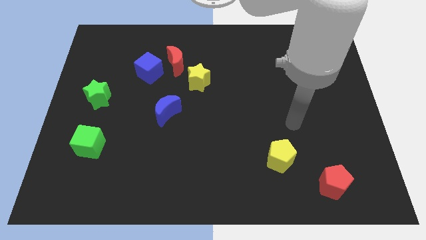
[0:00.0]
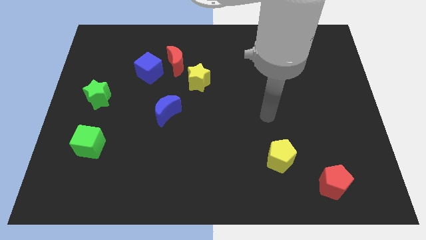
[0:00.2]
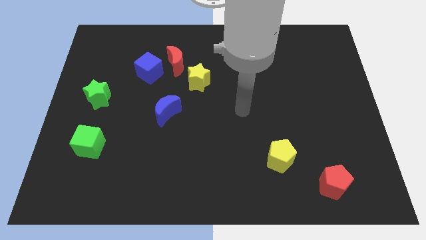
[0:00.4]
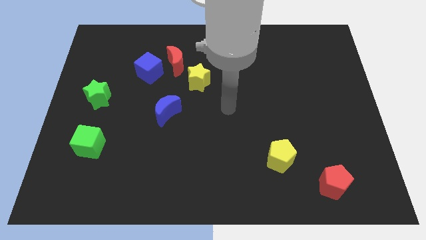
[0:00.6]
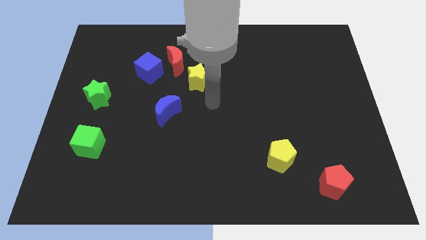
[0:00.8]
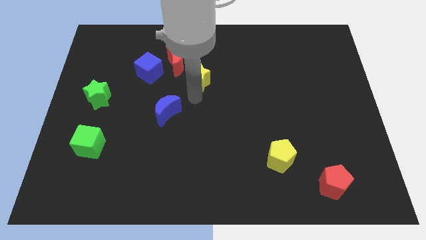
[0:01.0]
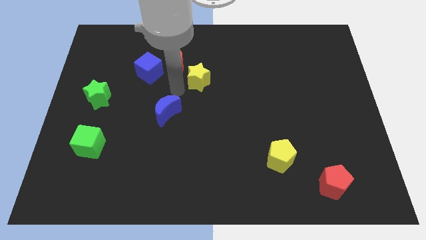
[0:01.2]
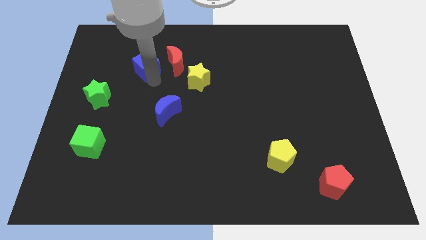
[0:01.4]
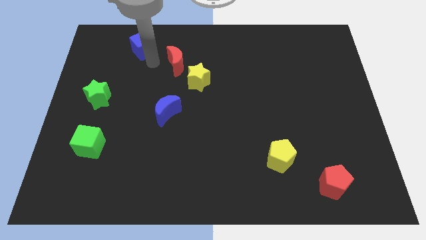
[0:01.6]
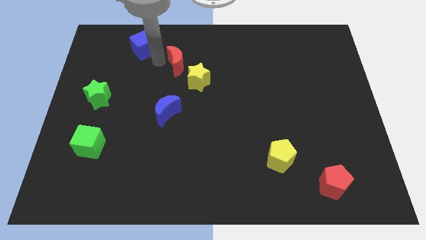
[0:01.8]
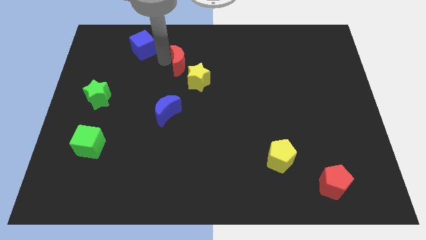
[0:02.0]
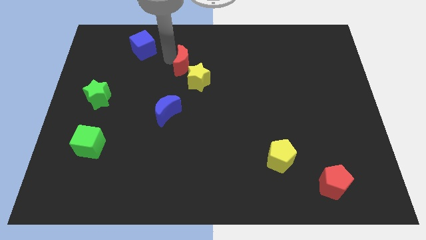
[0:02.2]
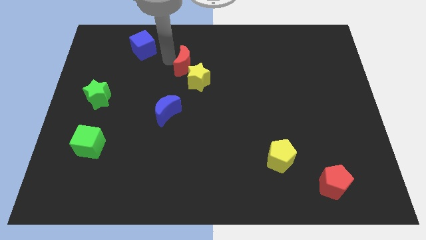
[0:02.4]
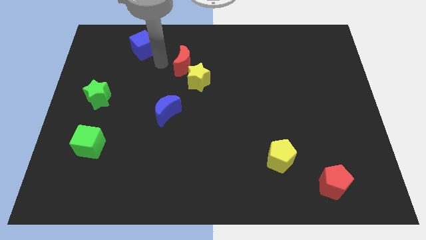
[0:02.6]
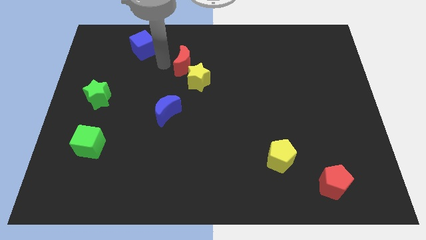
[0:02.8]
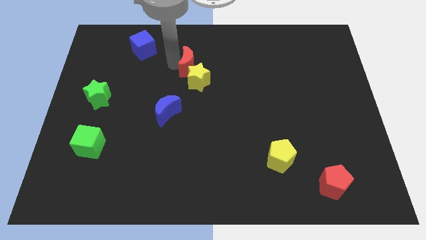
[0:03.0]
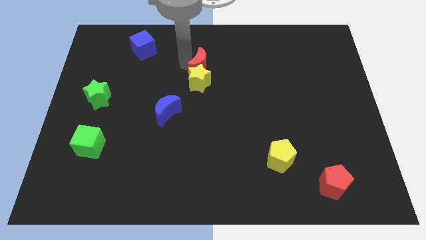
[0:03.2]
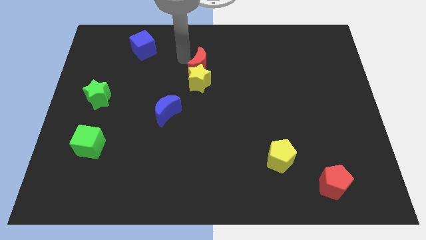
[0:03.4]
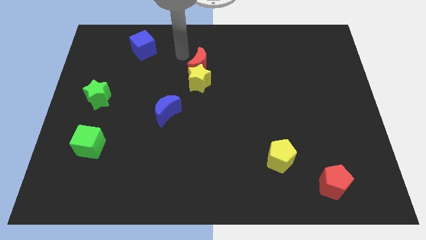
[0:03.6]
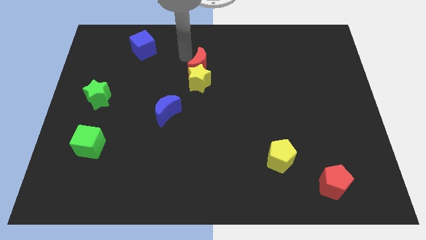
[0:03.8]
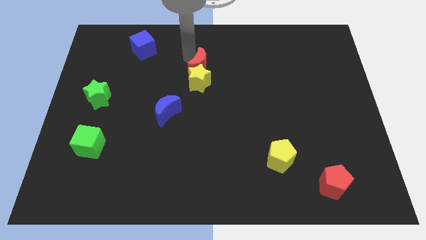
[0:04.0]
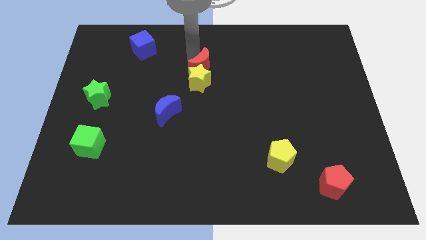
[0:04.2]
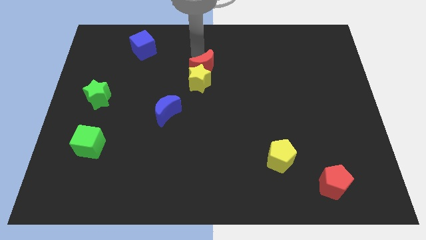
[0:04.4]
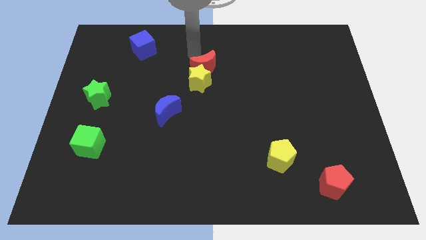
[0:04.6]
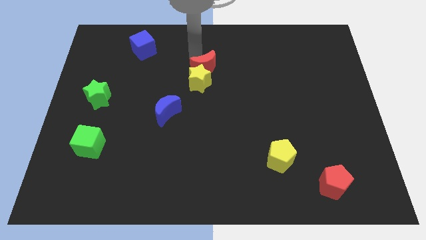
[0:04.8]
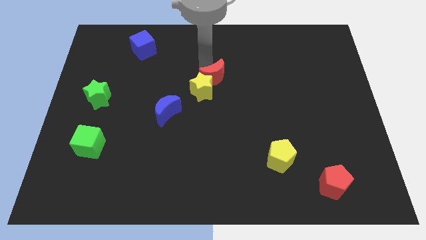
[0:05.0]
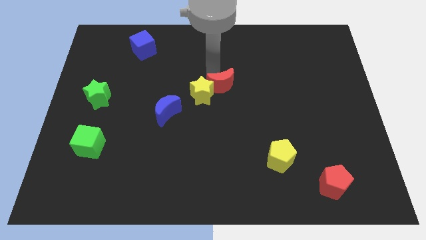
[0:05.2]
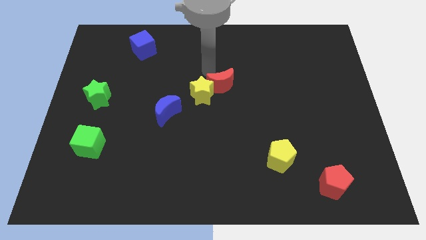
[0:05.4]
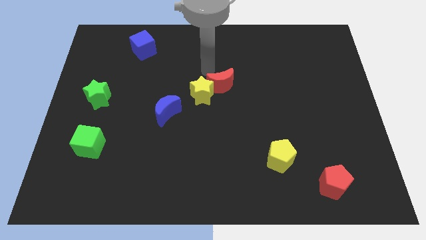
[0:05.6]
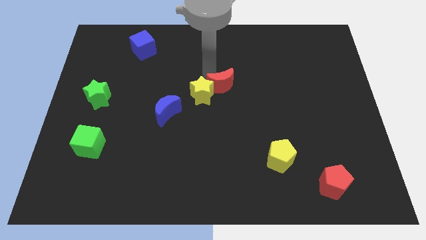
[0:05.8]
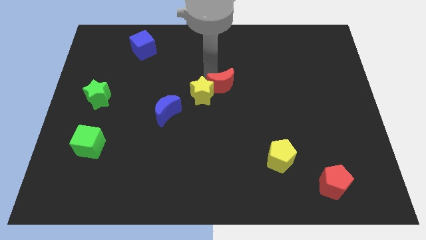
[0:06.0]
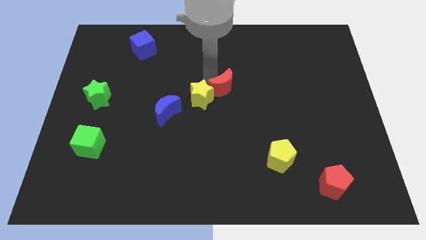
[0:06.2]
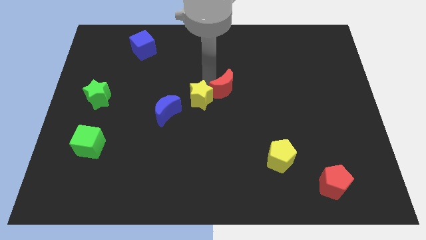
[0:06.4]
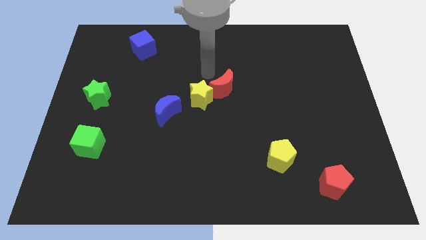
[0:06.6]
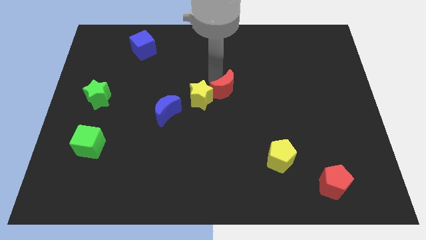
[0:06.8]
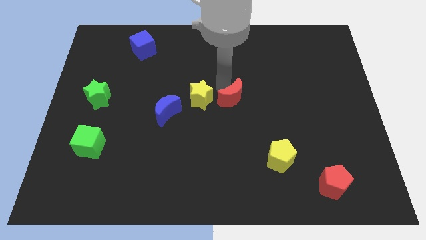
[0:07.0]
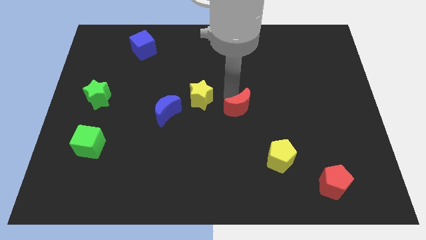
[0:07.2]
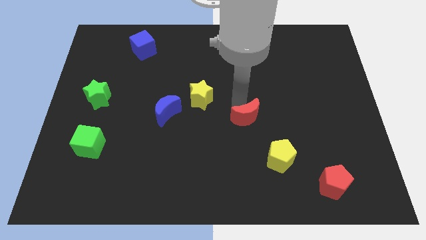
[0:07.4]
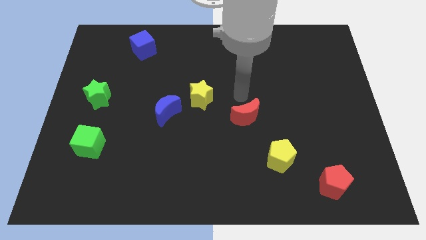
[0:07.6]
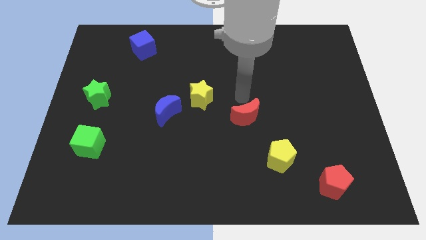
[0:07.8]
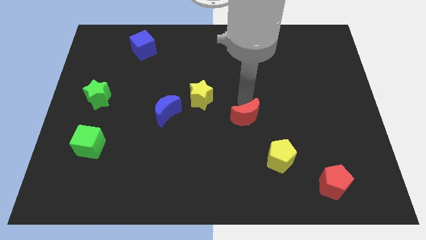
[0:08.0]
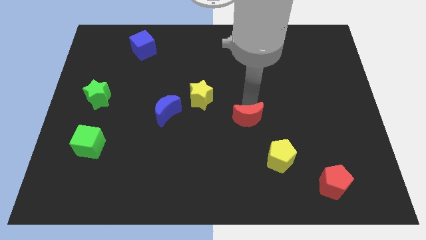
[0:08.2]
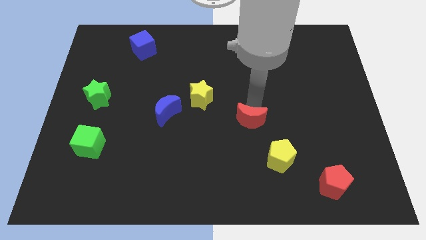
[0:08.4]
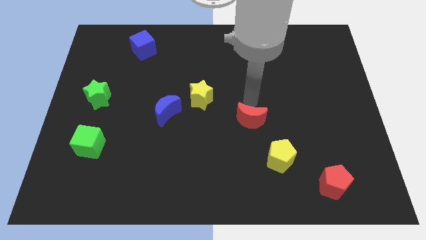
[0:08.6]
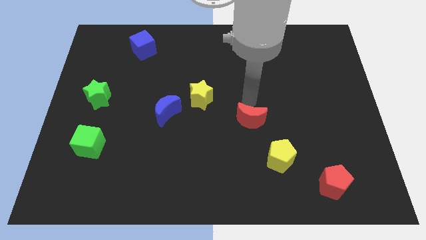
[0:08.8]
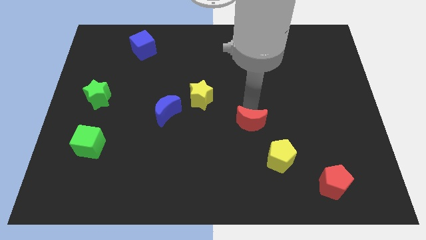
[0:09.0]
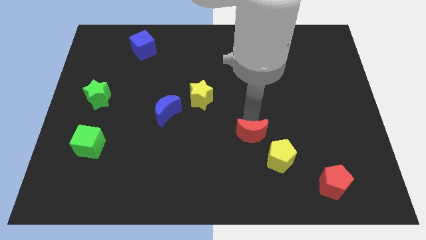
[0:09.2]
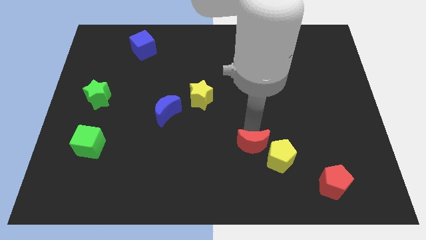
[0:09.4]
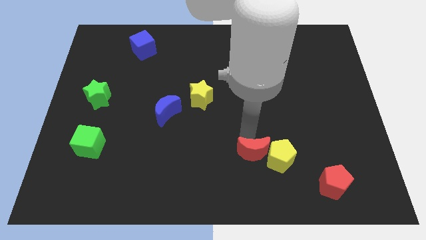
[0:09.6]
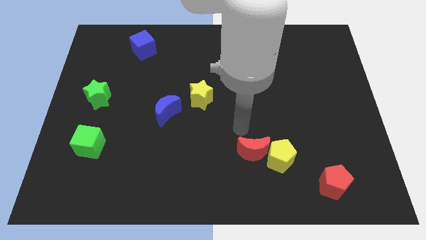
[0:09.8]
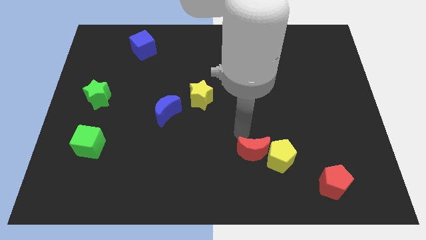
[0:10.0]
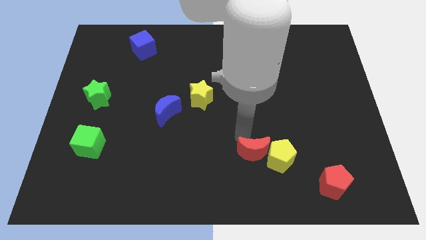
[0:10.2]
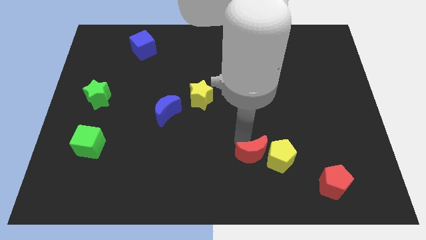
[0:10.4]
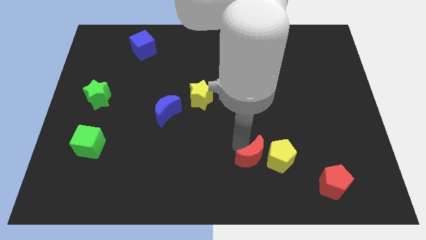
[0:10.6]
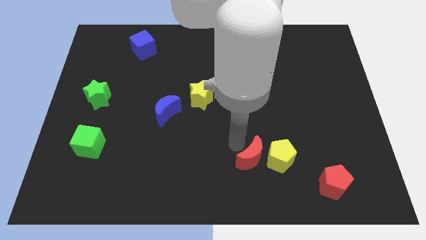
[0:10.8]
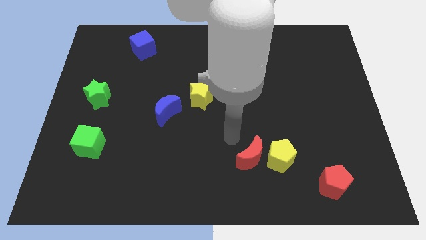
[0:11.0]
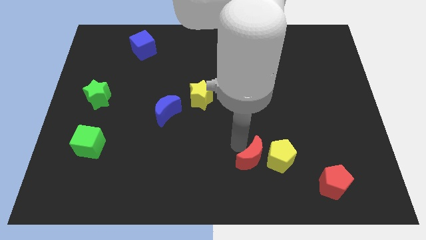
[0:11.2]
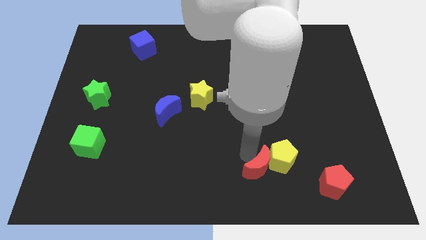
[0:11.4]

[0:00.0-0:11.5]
slide the red moon just left of the red pentagon

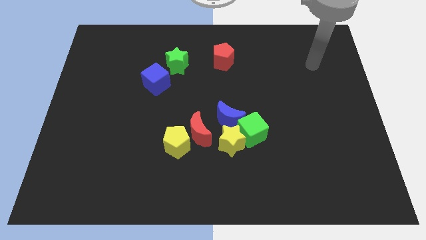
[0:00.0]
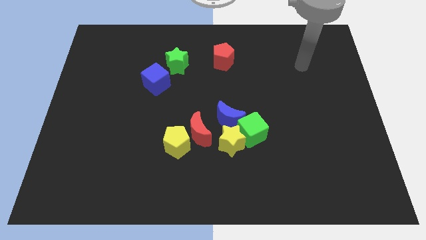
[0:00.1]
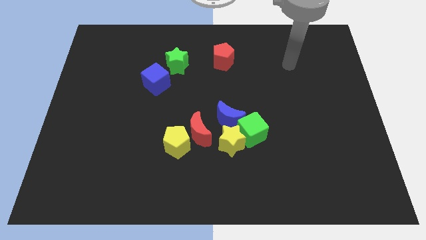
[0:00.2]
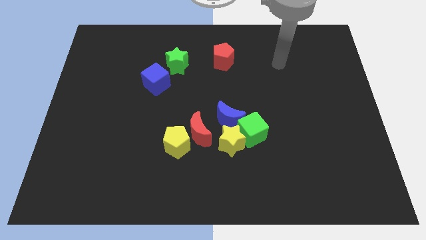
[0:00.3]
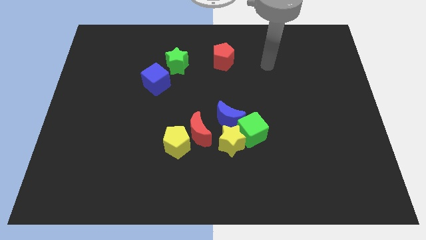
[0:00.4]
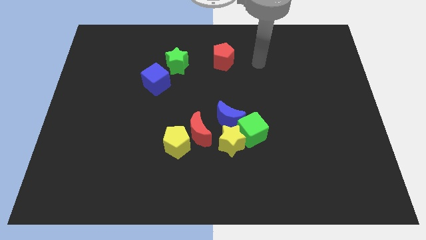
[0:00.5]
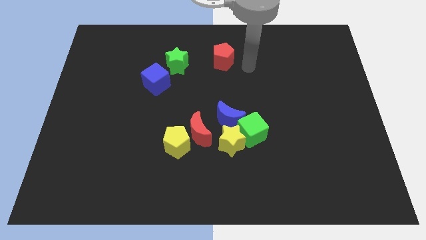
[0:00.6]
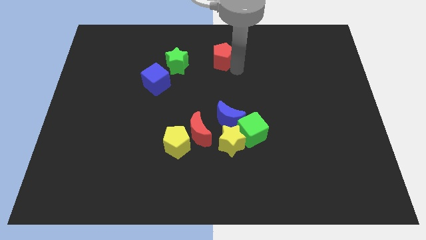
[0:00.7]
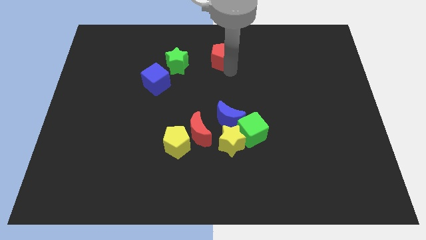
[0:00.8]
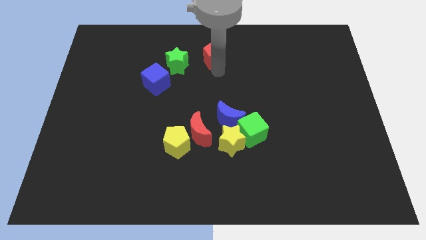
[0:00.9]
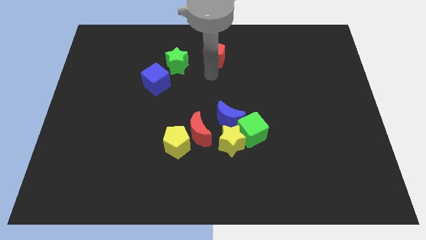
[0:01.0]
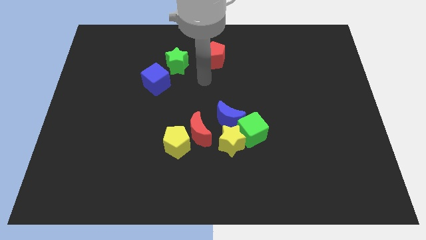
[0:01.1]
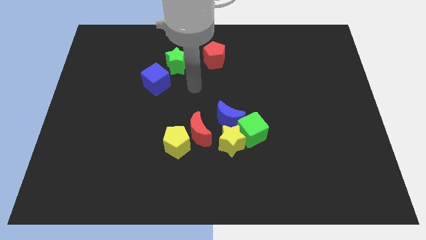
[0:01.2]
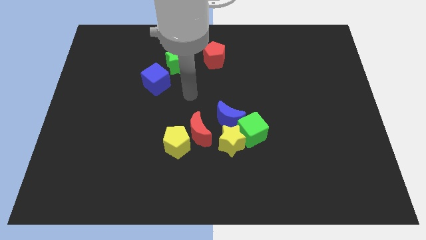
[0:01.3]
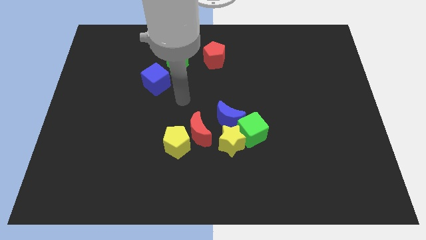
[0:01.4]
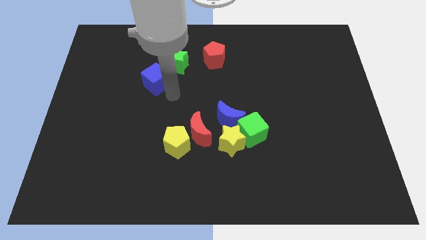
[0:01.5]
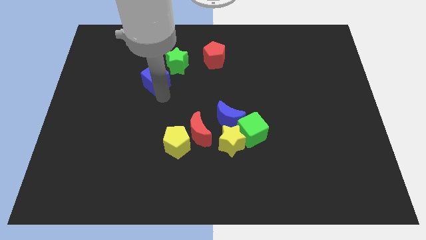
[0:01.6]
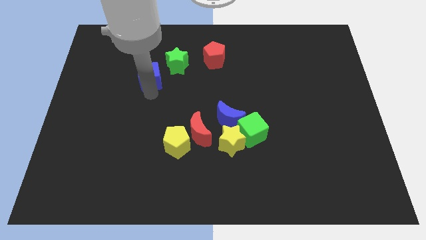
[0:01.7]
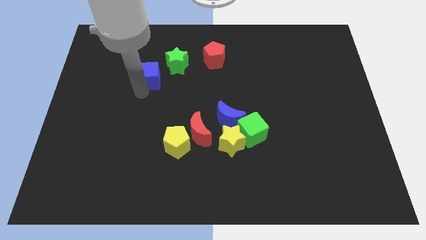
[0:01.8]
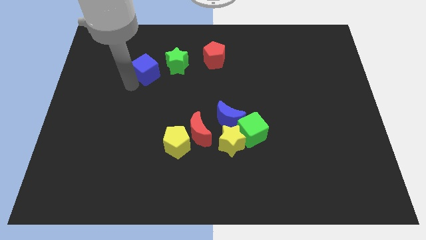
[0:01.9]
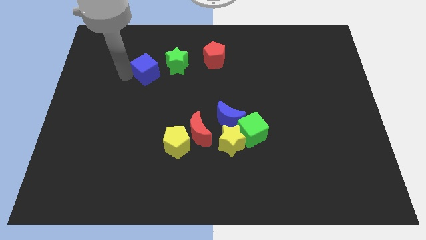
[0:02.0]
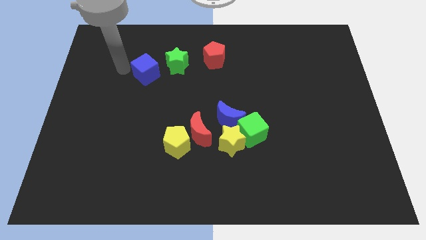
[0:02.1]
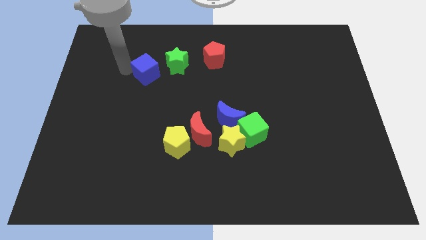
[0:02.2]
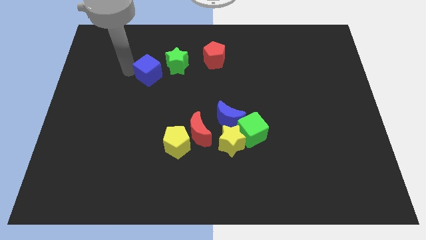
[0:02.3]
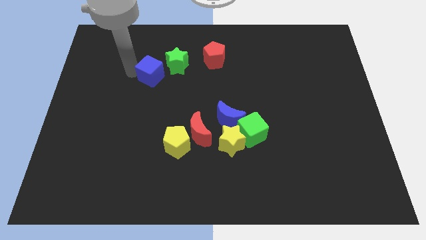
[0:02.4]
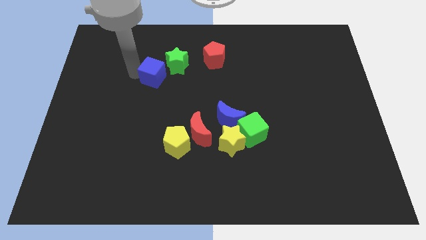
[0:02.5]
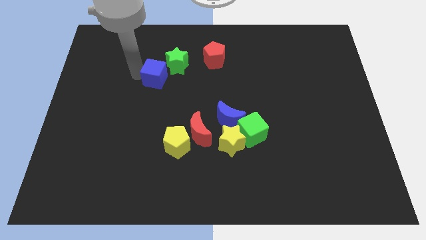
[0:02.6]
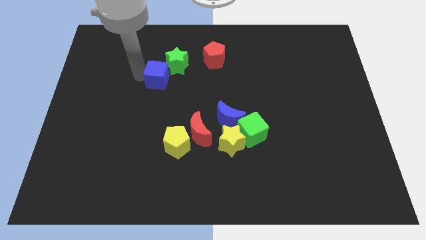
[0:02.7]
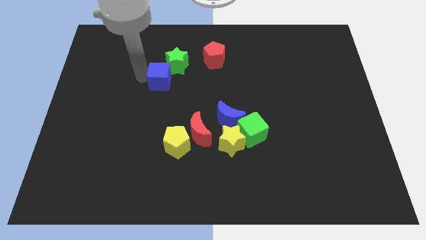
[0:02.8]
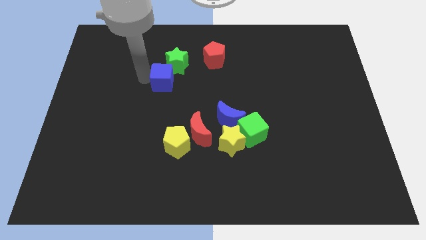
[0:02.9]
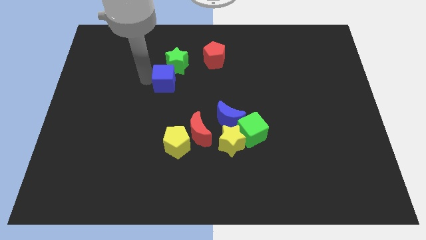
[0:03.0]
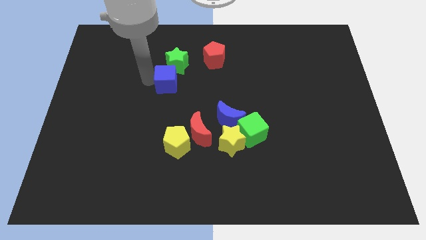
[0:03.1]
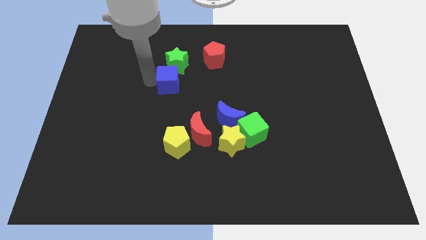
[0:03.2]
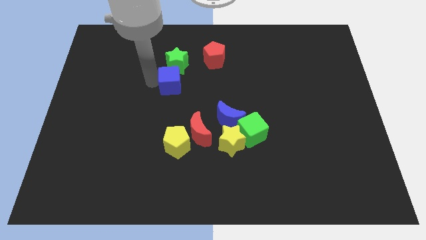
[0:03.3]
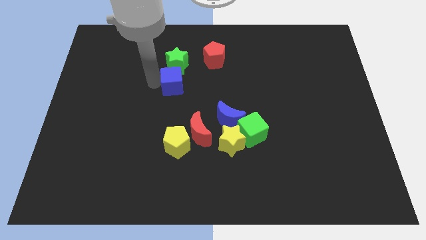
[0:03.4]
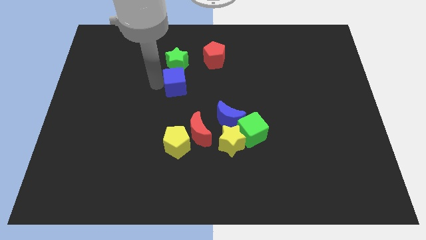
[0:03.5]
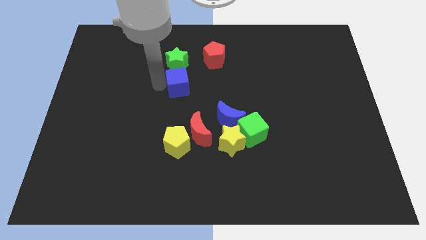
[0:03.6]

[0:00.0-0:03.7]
put the blue cube diagonally down and to the left of the red pentagon
